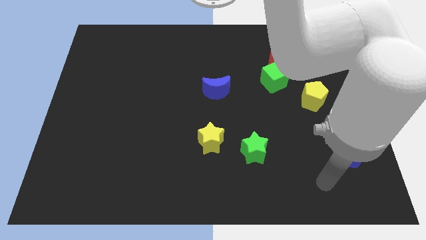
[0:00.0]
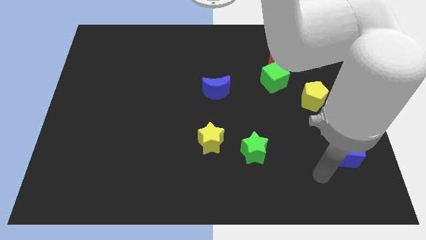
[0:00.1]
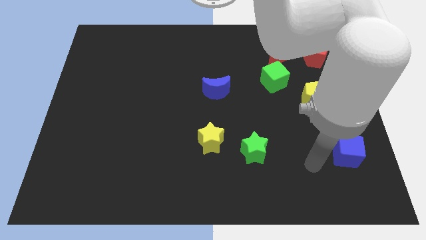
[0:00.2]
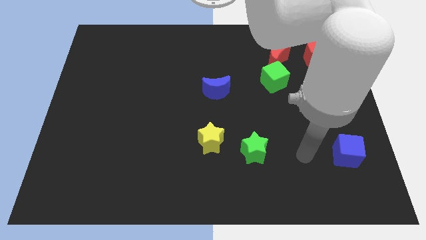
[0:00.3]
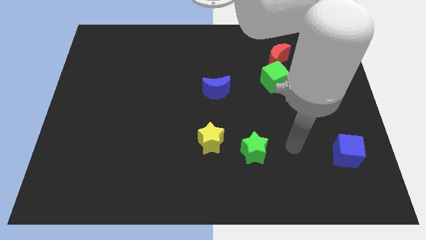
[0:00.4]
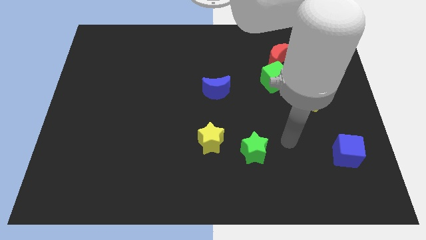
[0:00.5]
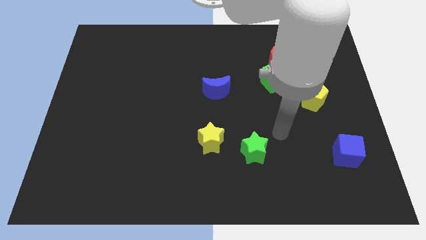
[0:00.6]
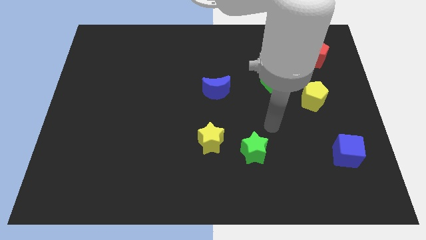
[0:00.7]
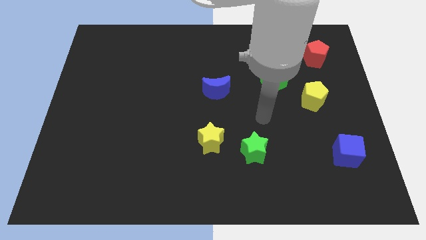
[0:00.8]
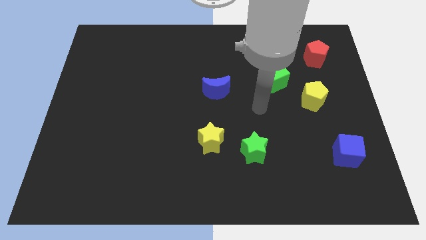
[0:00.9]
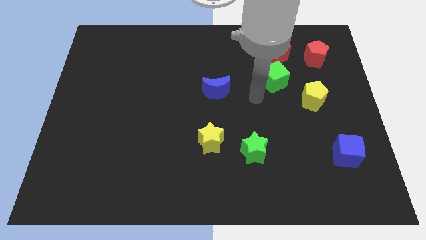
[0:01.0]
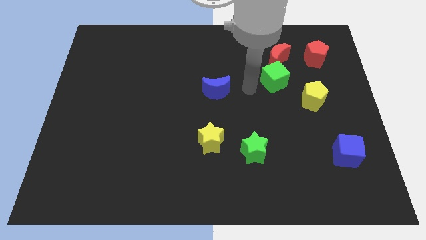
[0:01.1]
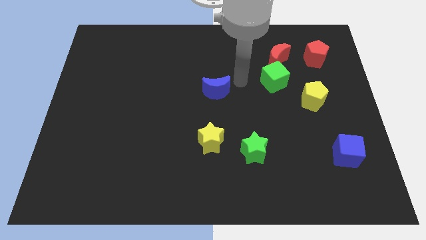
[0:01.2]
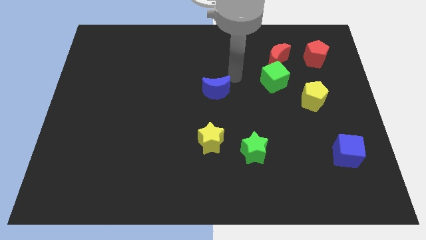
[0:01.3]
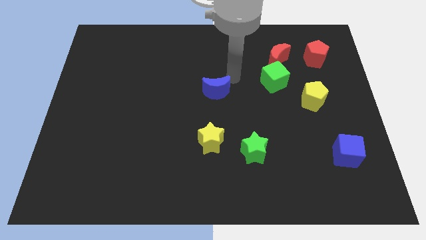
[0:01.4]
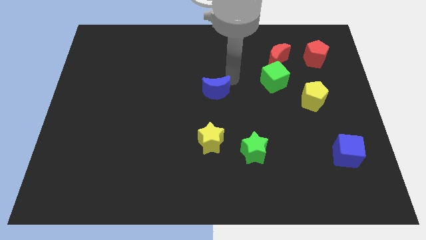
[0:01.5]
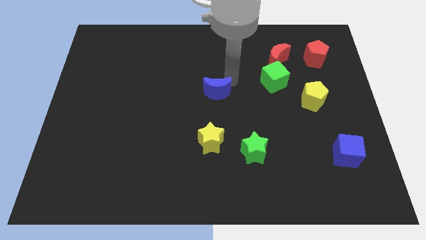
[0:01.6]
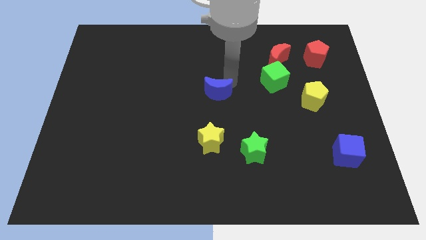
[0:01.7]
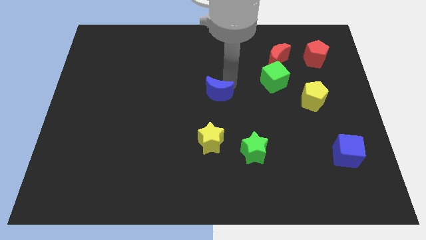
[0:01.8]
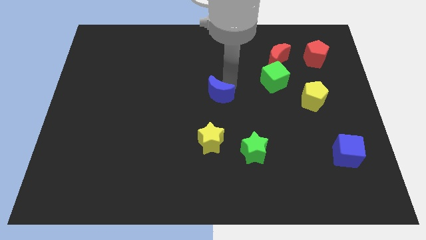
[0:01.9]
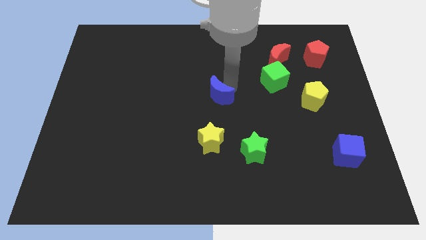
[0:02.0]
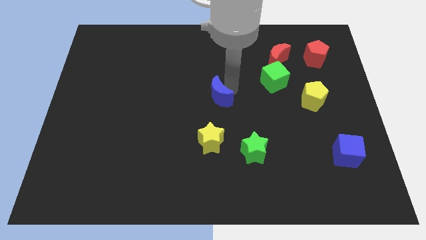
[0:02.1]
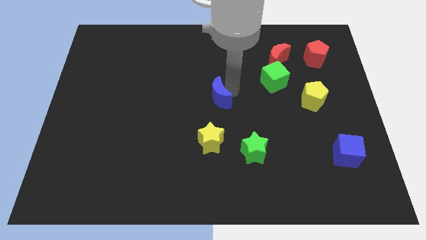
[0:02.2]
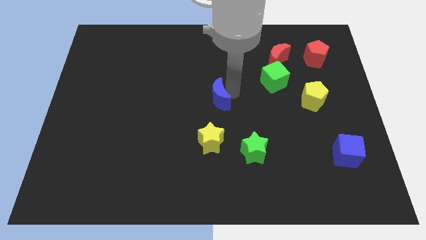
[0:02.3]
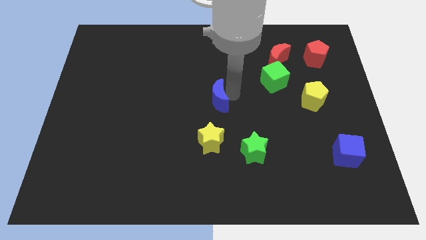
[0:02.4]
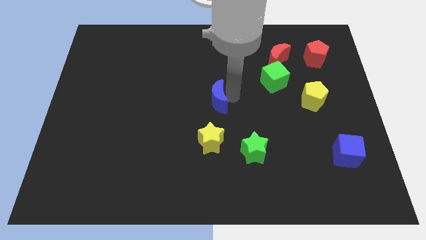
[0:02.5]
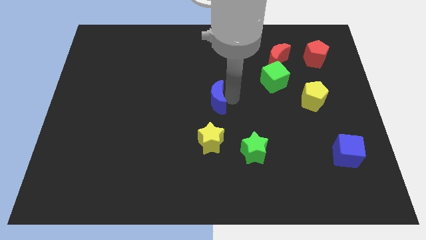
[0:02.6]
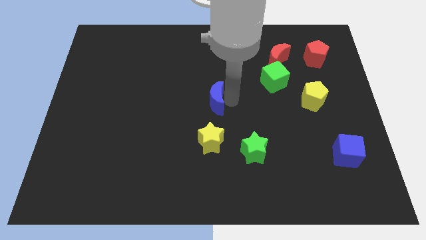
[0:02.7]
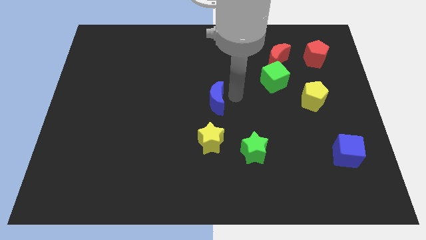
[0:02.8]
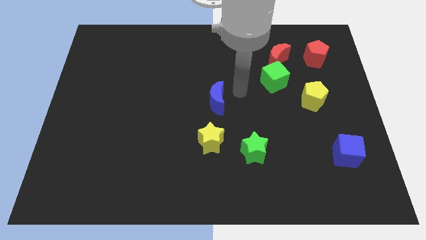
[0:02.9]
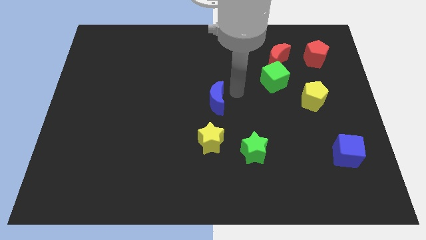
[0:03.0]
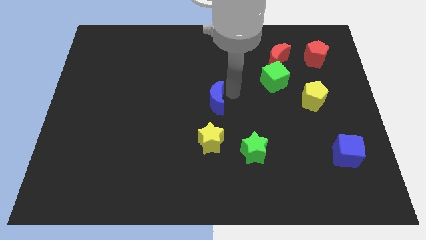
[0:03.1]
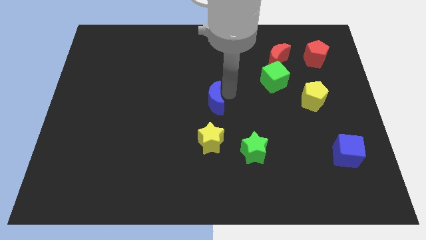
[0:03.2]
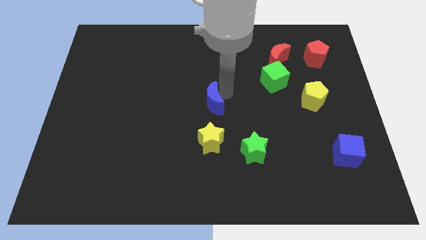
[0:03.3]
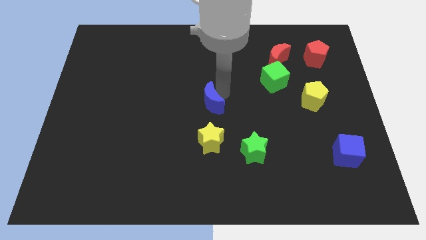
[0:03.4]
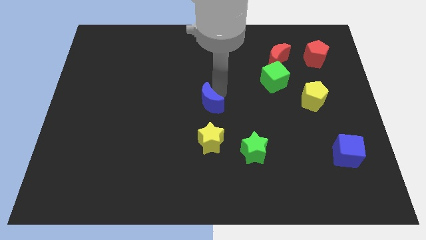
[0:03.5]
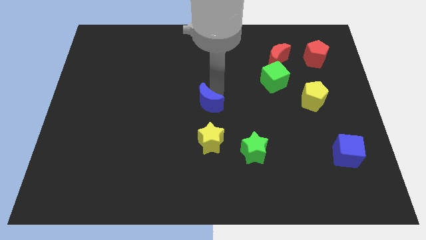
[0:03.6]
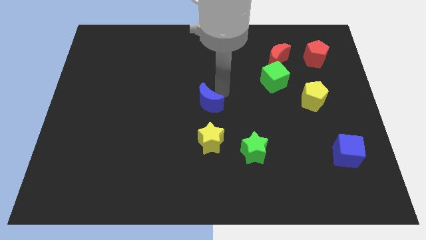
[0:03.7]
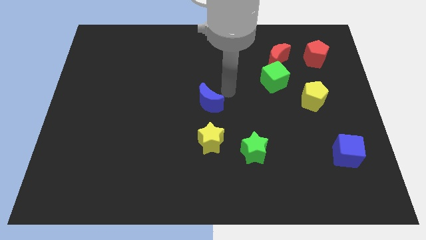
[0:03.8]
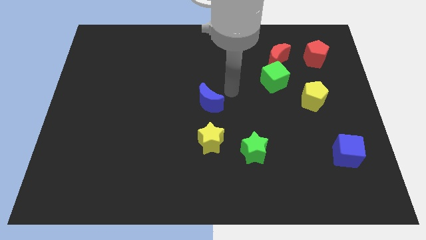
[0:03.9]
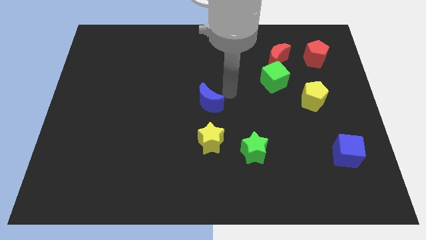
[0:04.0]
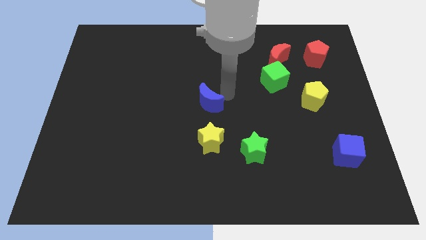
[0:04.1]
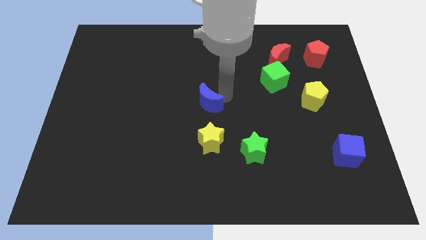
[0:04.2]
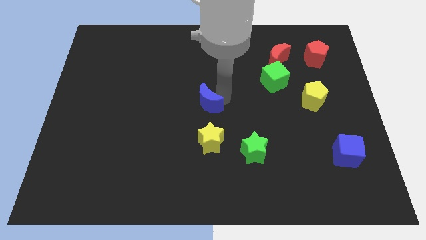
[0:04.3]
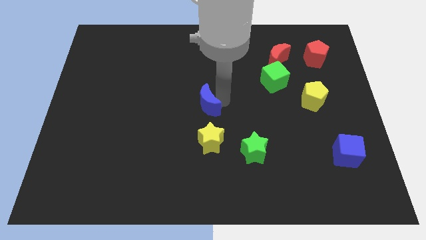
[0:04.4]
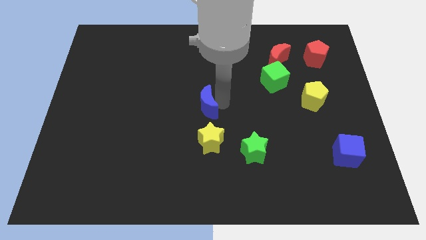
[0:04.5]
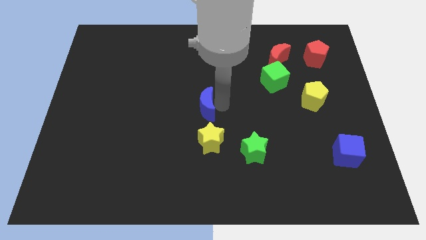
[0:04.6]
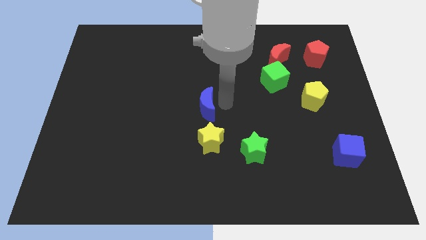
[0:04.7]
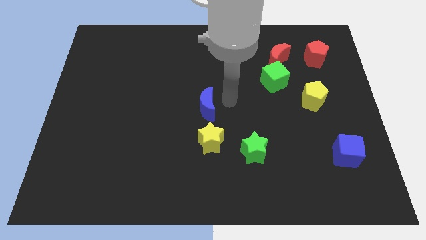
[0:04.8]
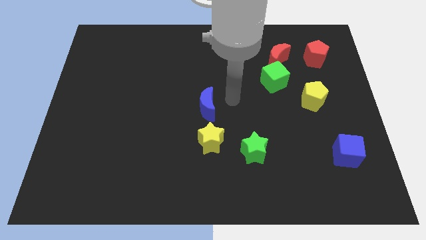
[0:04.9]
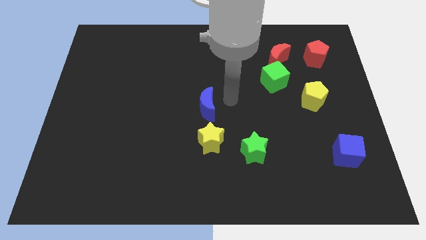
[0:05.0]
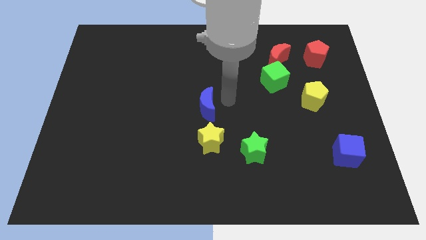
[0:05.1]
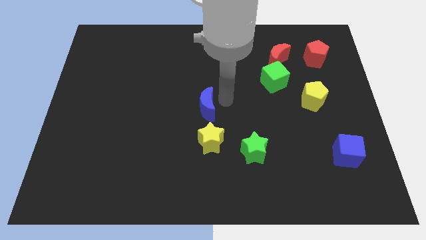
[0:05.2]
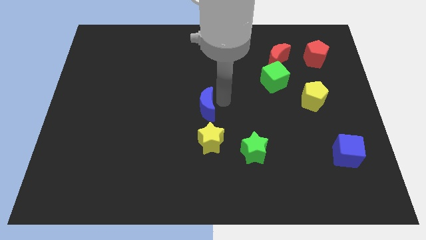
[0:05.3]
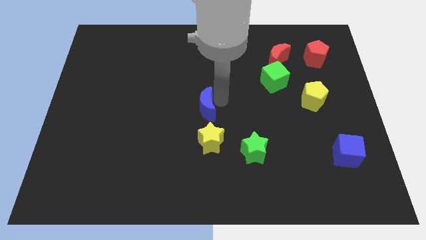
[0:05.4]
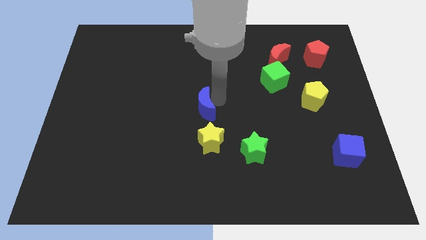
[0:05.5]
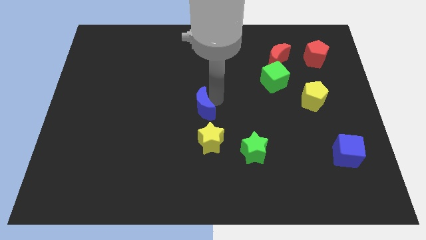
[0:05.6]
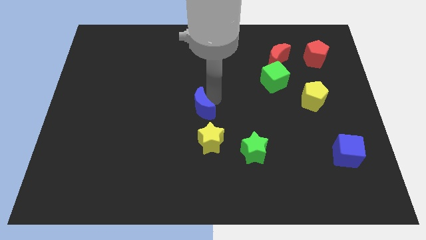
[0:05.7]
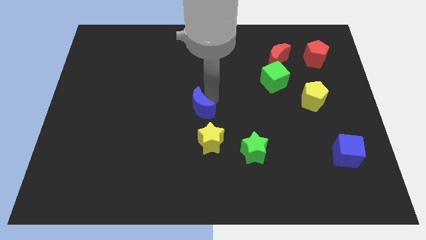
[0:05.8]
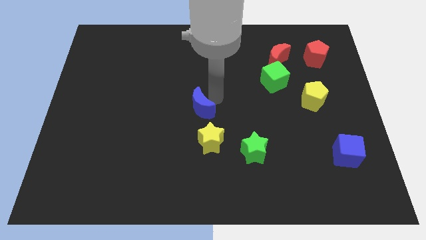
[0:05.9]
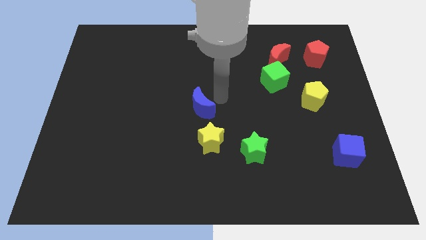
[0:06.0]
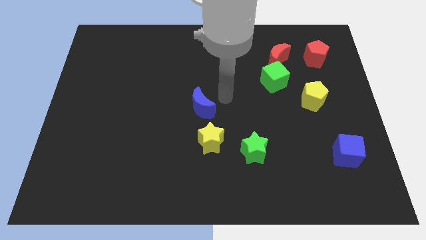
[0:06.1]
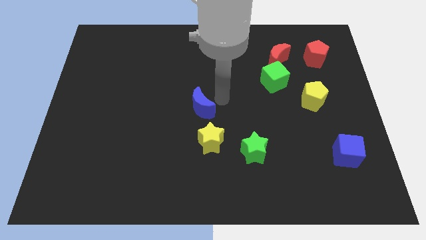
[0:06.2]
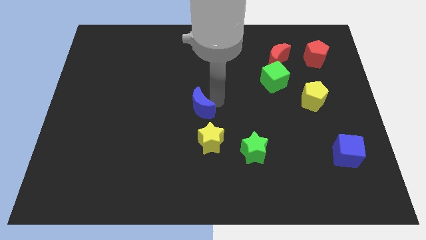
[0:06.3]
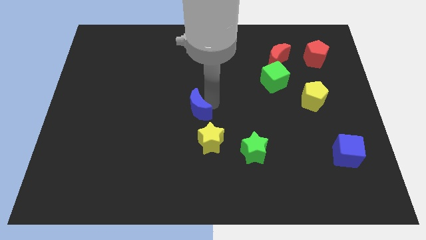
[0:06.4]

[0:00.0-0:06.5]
move the blue moon a little diagonally down and left

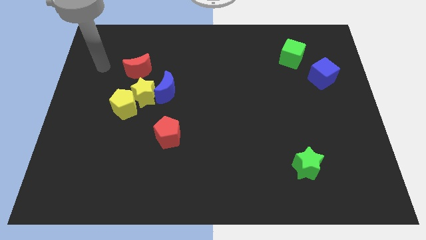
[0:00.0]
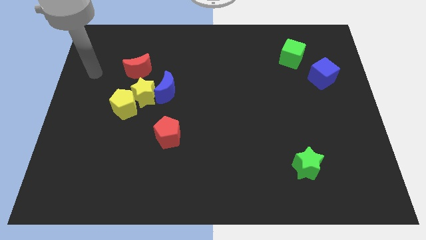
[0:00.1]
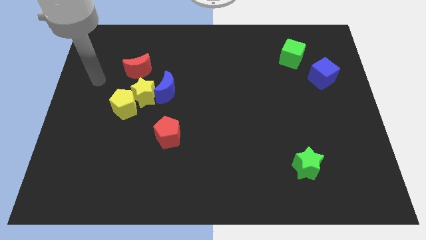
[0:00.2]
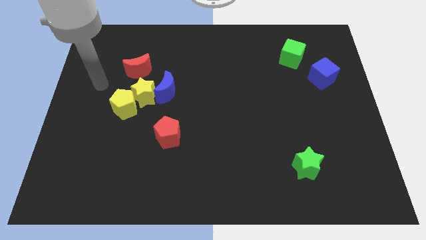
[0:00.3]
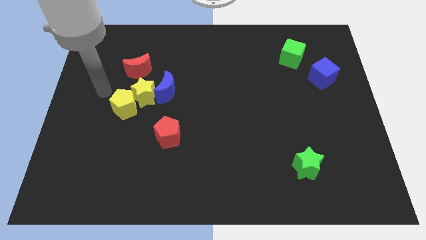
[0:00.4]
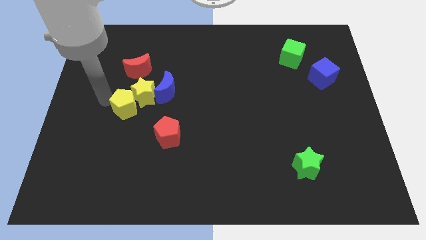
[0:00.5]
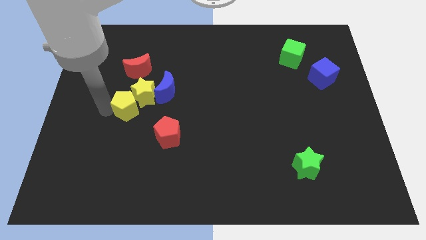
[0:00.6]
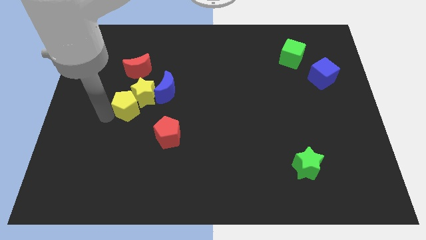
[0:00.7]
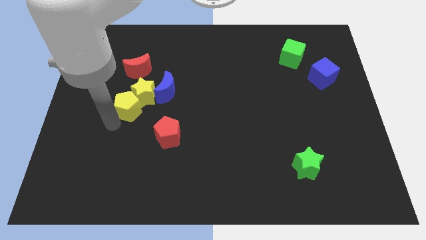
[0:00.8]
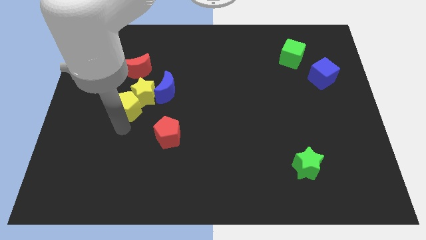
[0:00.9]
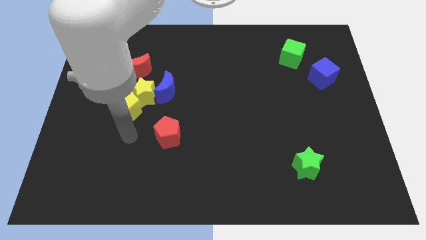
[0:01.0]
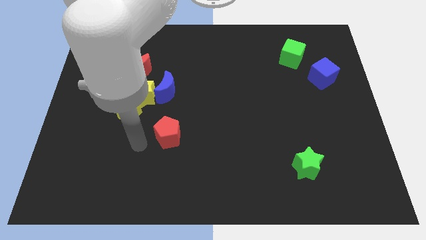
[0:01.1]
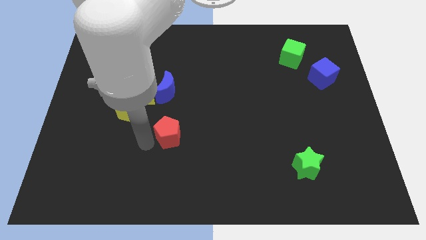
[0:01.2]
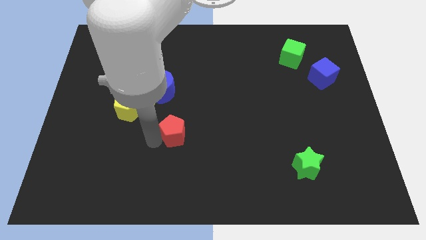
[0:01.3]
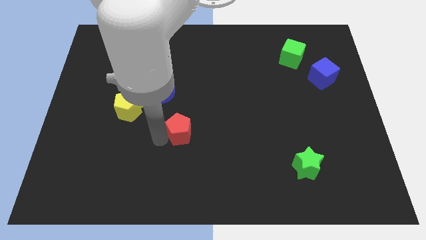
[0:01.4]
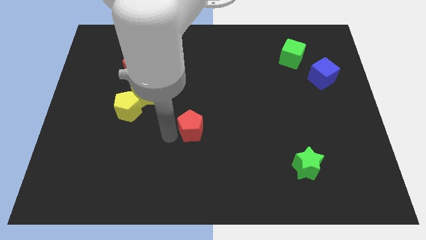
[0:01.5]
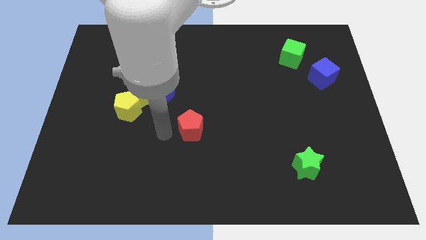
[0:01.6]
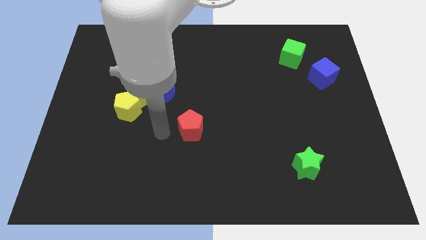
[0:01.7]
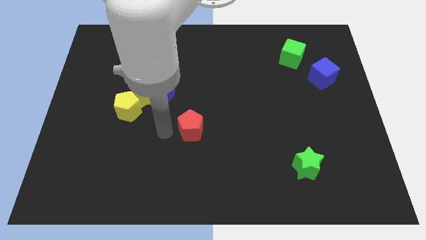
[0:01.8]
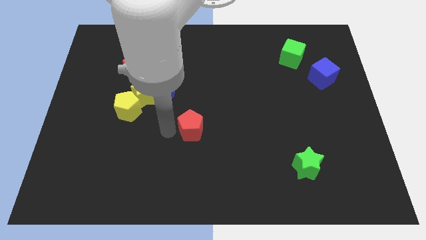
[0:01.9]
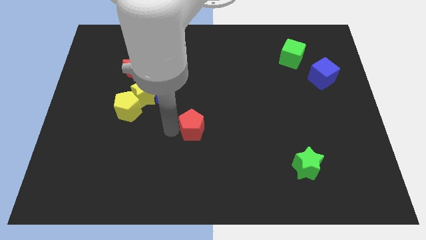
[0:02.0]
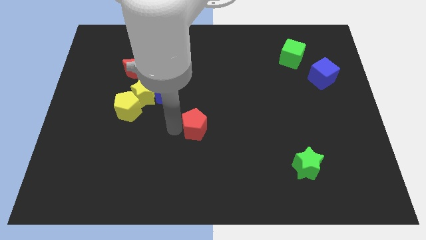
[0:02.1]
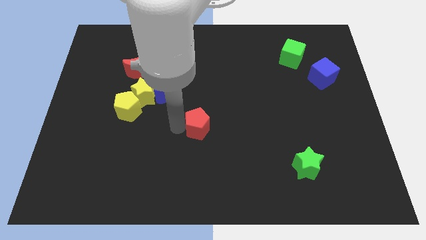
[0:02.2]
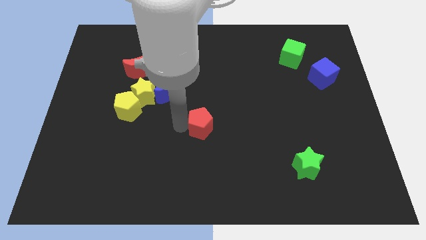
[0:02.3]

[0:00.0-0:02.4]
slightly push the red pentagon right
